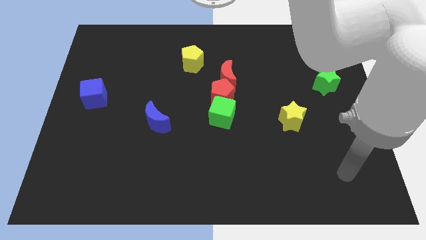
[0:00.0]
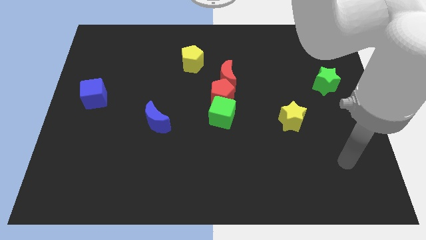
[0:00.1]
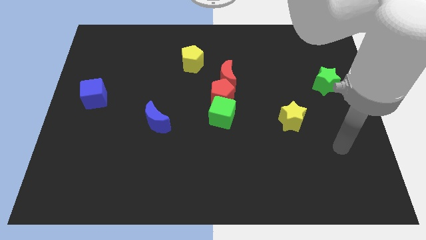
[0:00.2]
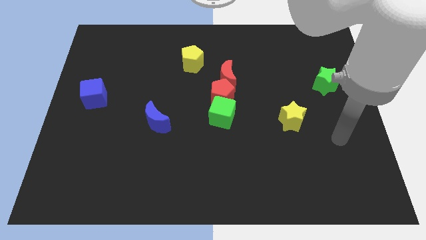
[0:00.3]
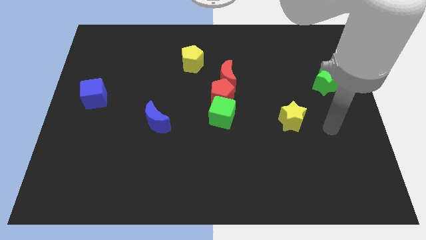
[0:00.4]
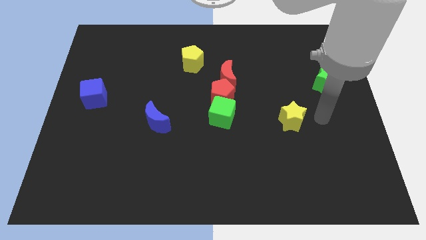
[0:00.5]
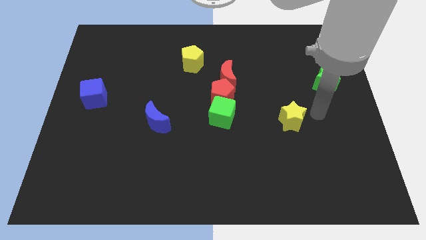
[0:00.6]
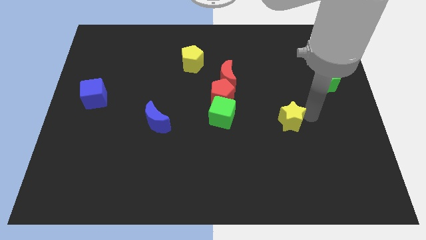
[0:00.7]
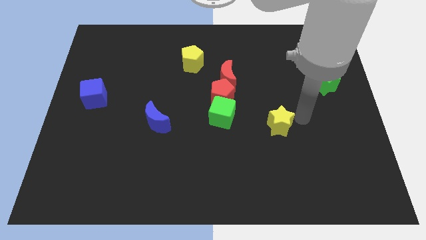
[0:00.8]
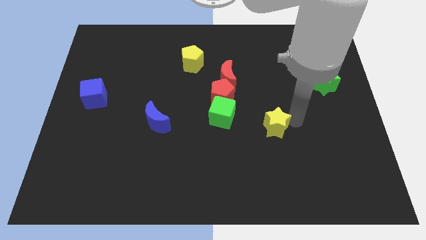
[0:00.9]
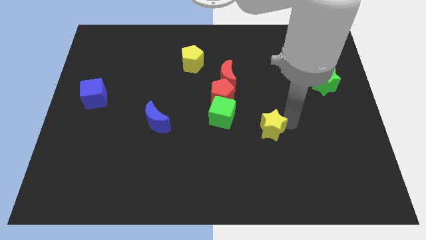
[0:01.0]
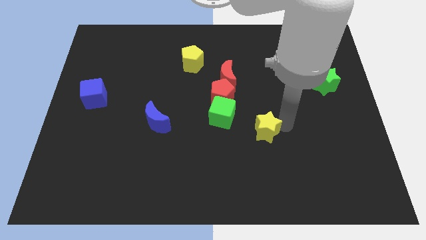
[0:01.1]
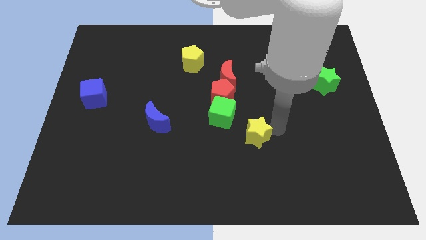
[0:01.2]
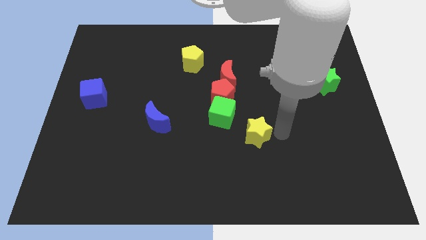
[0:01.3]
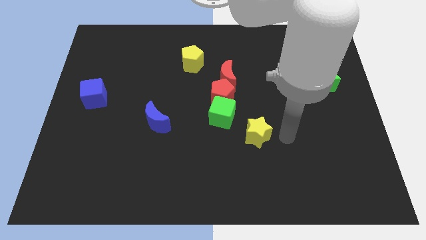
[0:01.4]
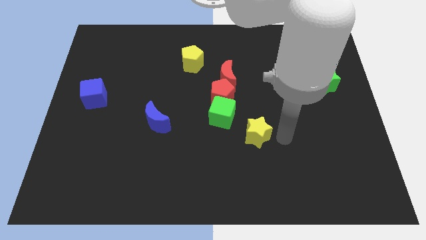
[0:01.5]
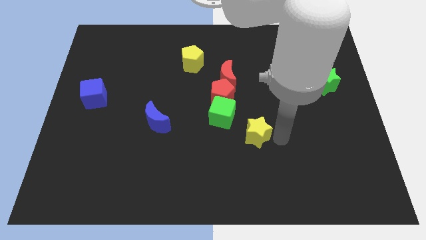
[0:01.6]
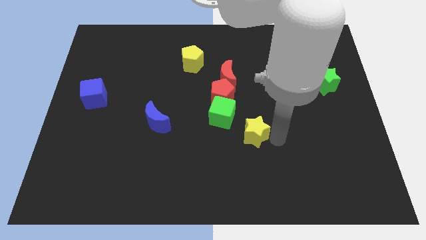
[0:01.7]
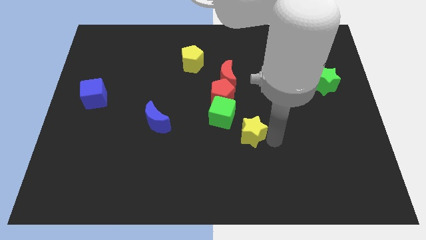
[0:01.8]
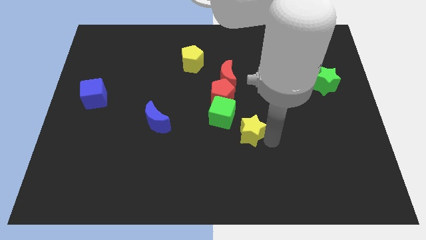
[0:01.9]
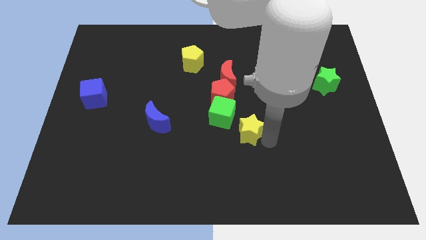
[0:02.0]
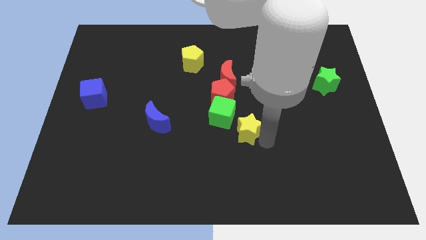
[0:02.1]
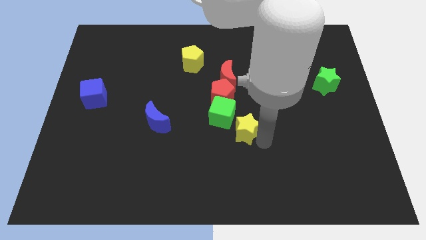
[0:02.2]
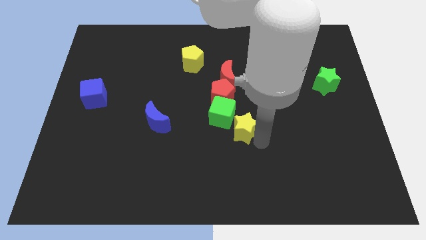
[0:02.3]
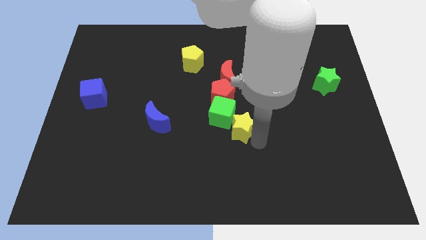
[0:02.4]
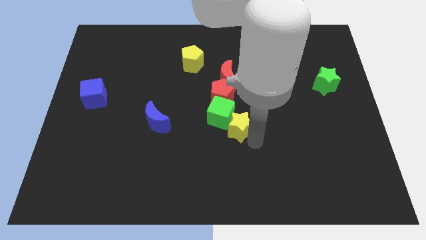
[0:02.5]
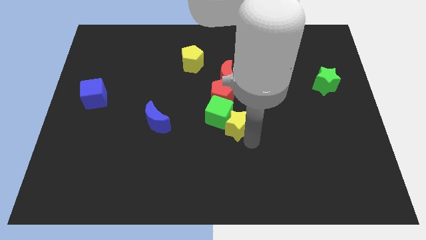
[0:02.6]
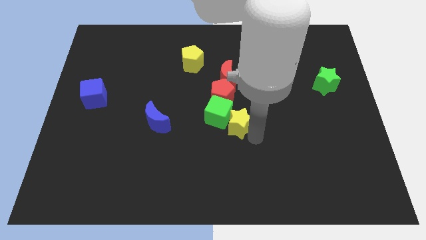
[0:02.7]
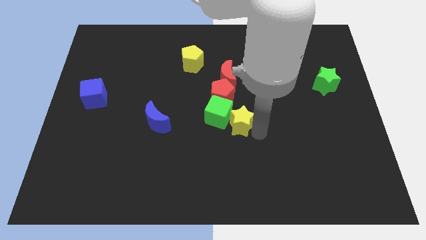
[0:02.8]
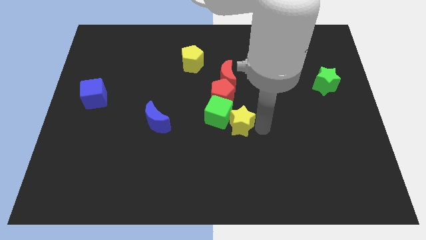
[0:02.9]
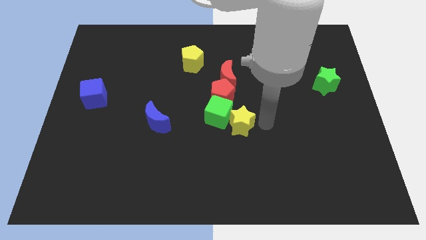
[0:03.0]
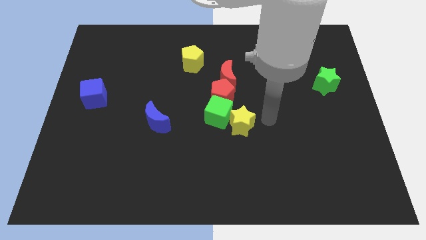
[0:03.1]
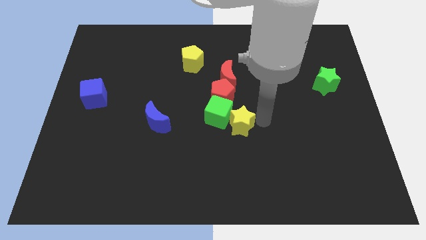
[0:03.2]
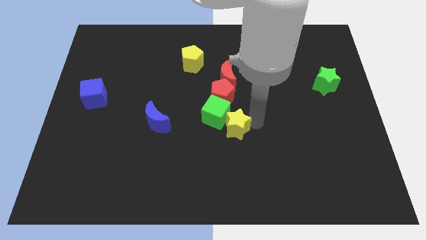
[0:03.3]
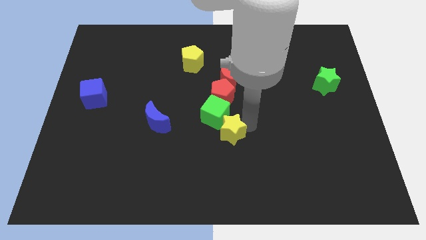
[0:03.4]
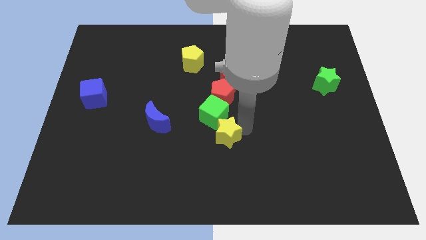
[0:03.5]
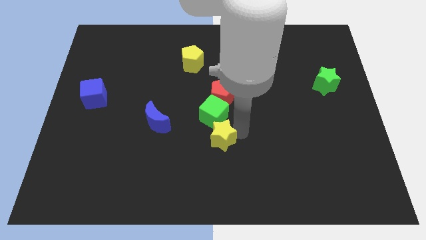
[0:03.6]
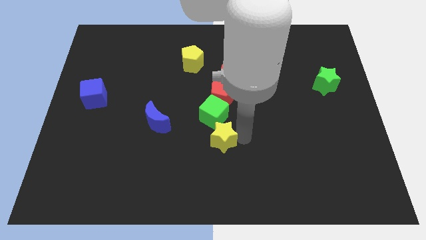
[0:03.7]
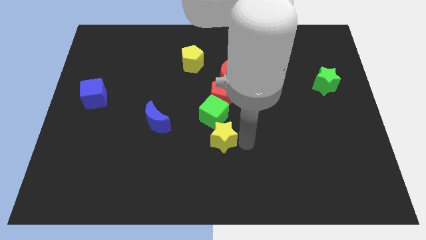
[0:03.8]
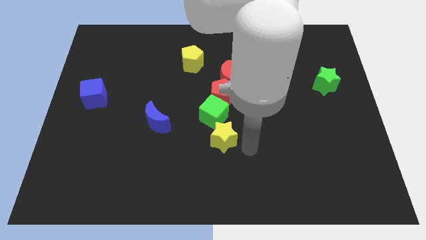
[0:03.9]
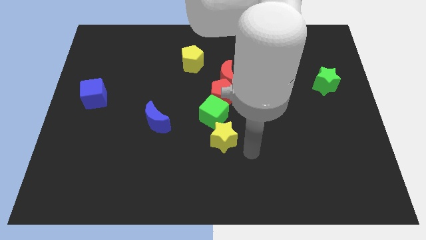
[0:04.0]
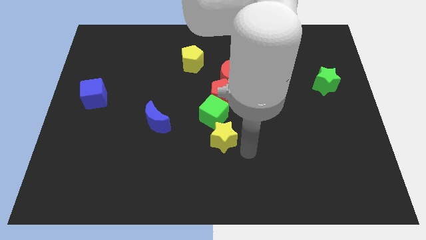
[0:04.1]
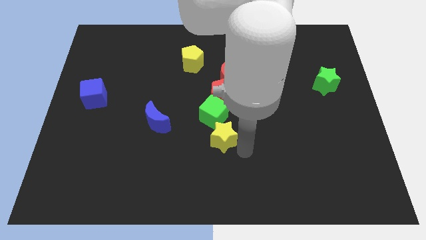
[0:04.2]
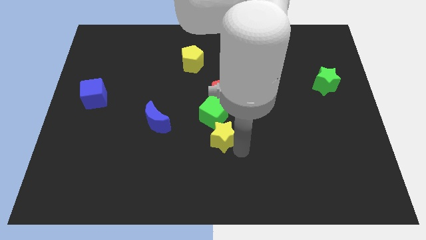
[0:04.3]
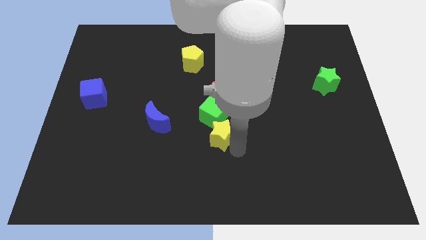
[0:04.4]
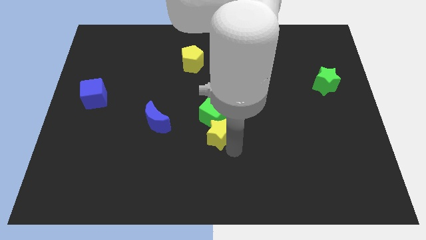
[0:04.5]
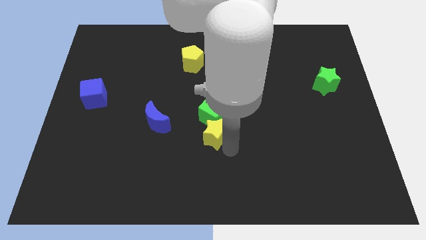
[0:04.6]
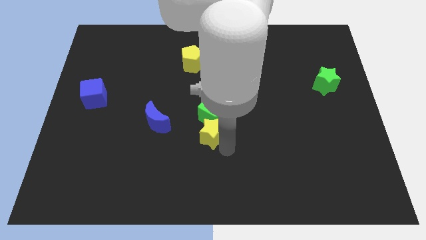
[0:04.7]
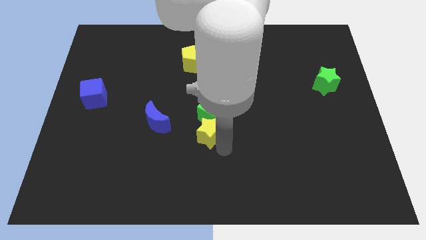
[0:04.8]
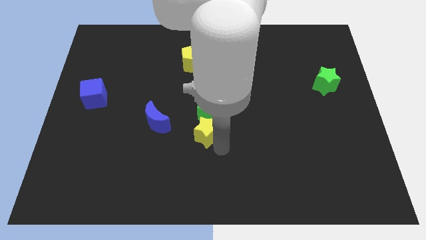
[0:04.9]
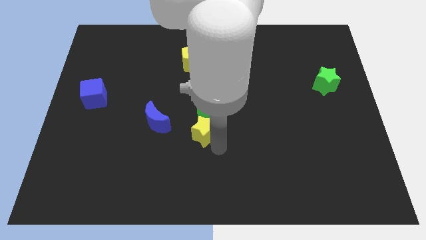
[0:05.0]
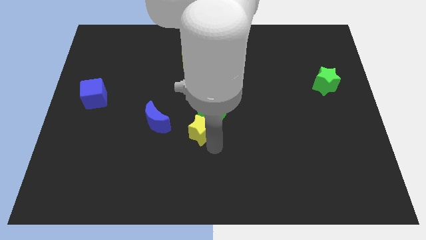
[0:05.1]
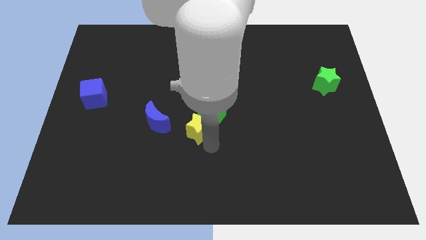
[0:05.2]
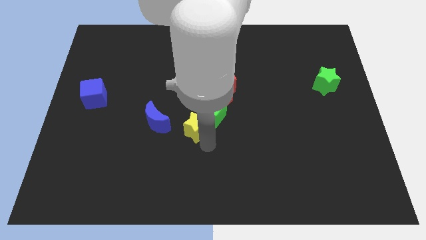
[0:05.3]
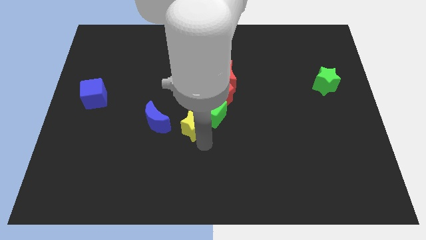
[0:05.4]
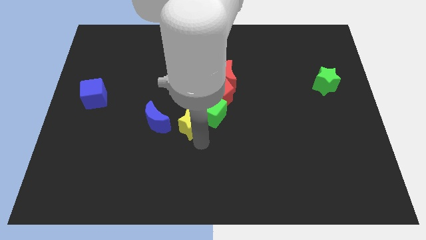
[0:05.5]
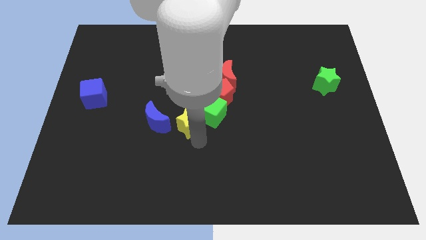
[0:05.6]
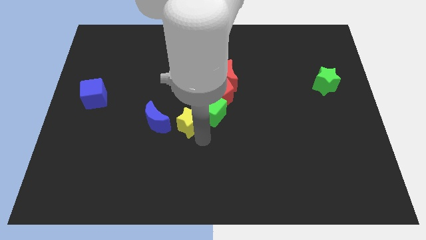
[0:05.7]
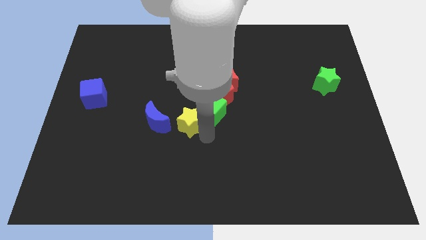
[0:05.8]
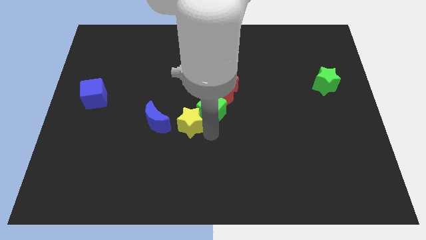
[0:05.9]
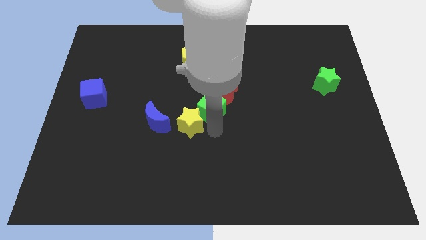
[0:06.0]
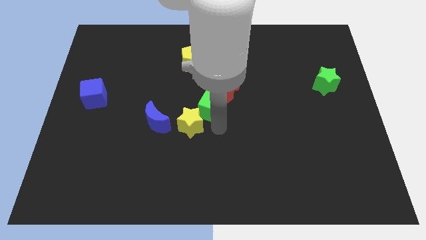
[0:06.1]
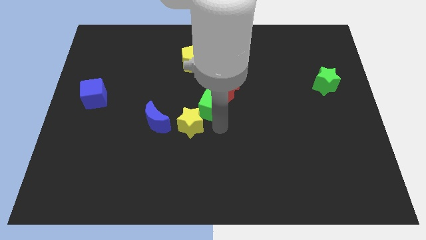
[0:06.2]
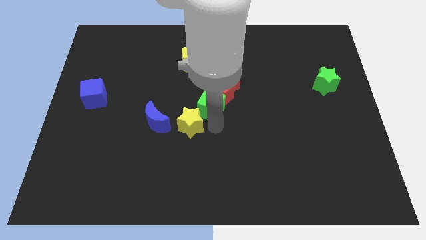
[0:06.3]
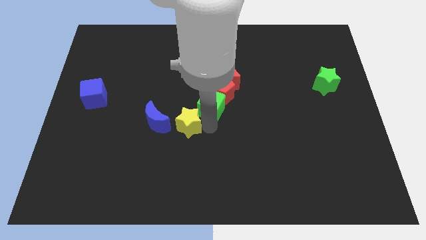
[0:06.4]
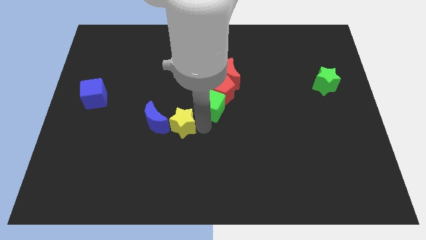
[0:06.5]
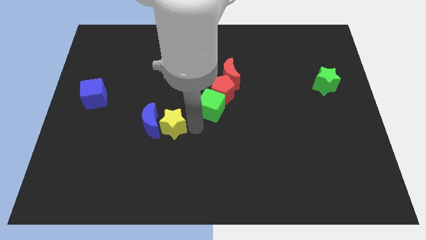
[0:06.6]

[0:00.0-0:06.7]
push the yellow star to the blue moon
